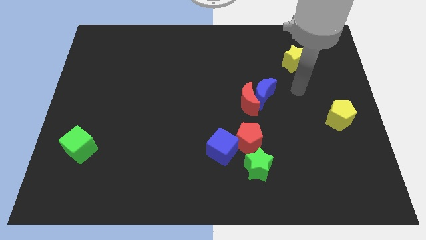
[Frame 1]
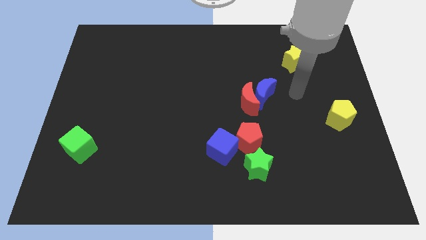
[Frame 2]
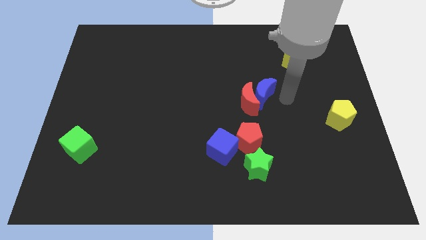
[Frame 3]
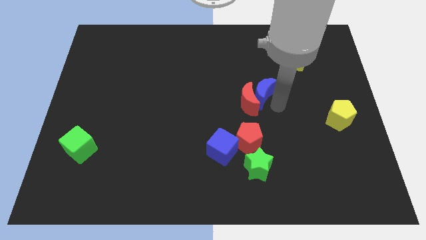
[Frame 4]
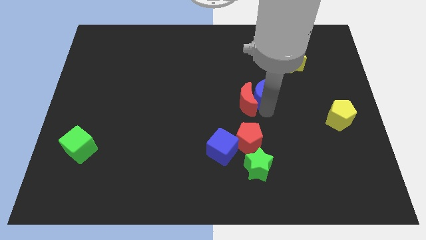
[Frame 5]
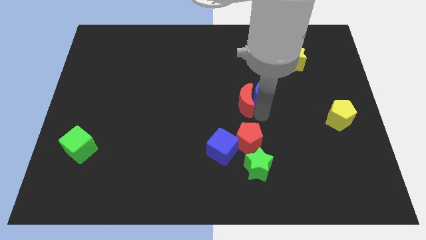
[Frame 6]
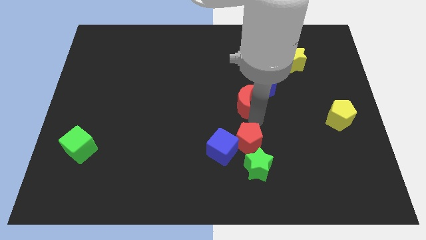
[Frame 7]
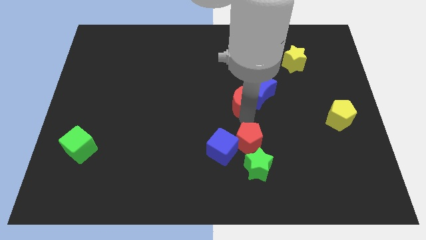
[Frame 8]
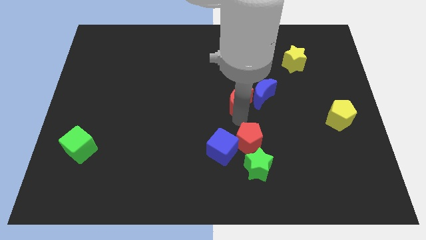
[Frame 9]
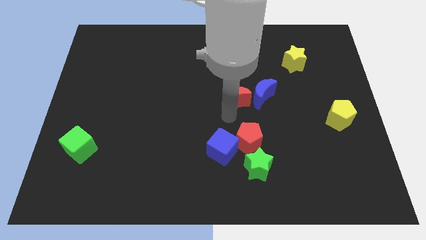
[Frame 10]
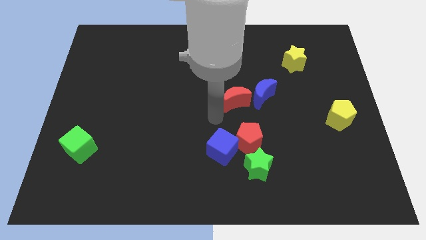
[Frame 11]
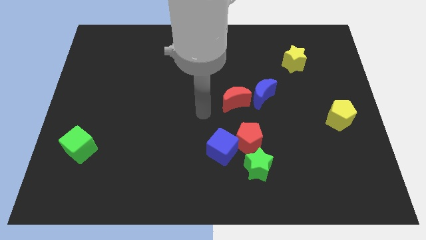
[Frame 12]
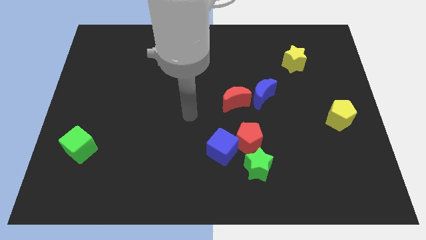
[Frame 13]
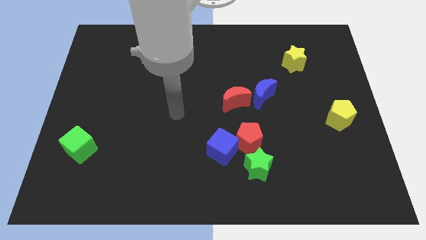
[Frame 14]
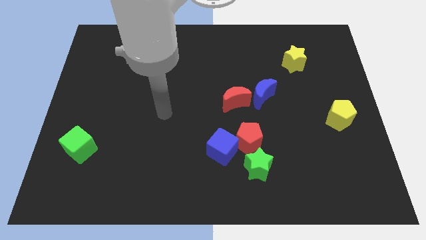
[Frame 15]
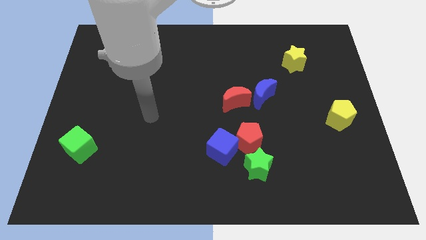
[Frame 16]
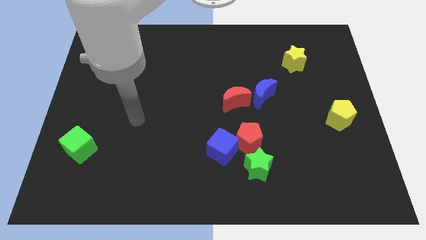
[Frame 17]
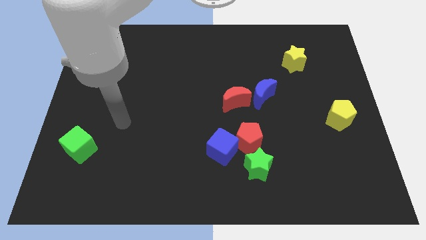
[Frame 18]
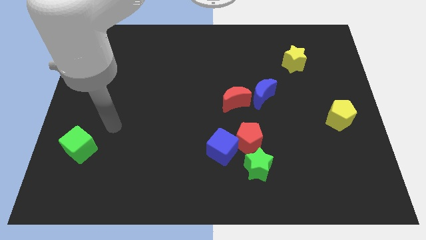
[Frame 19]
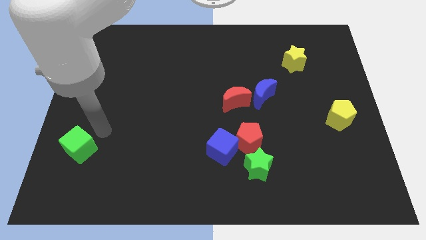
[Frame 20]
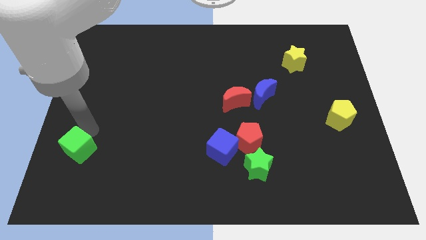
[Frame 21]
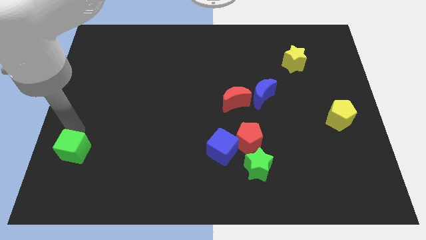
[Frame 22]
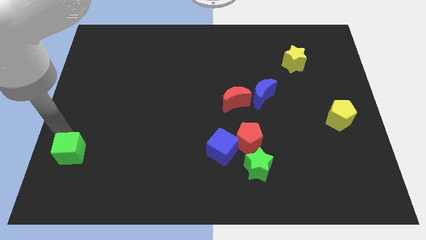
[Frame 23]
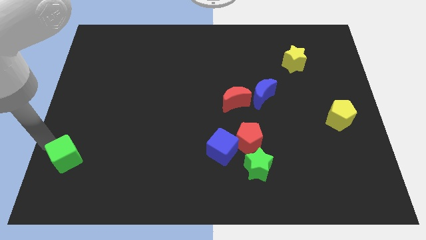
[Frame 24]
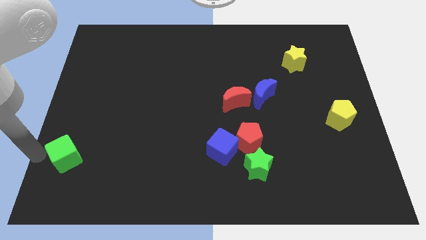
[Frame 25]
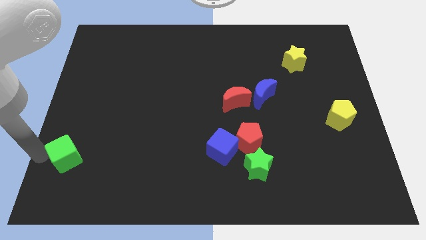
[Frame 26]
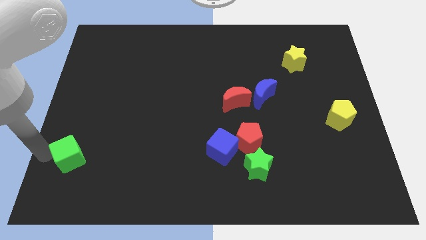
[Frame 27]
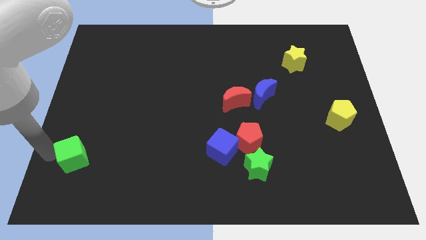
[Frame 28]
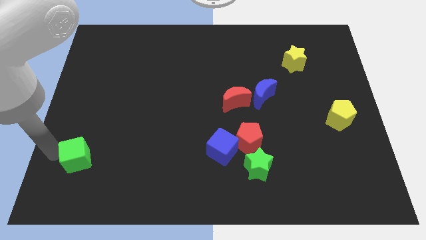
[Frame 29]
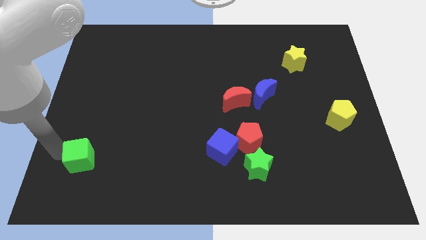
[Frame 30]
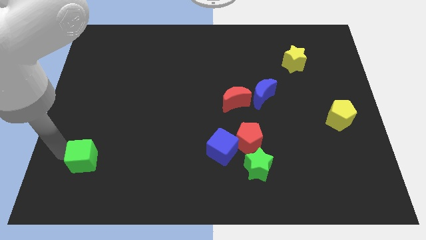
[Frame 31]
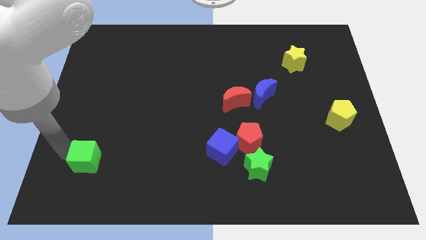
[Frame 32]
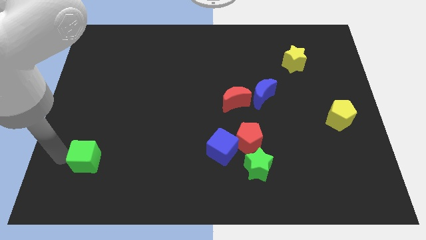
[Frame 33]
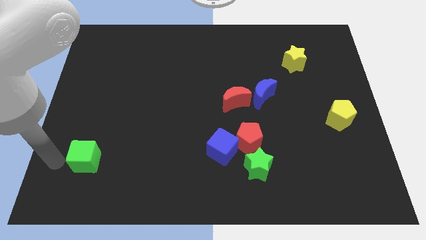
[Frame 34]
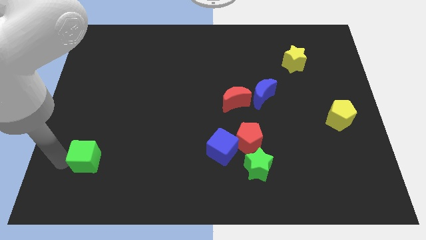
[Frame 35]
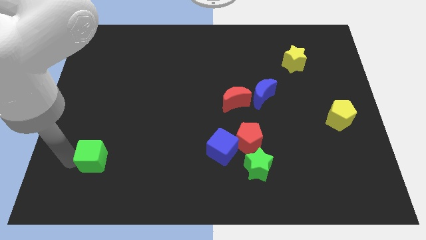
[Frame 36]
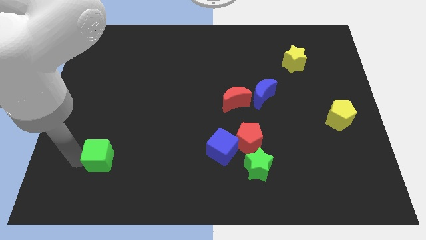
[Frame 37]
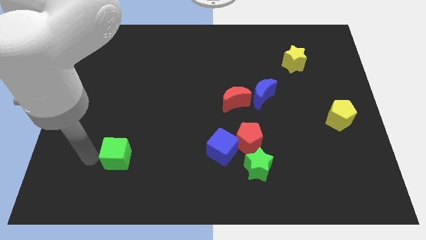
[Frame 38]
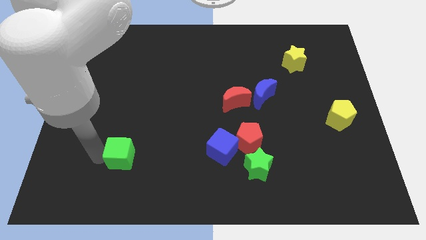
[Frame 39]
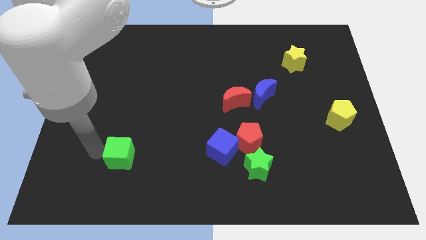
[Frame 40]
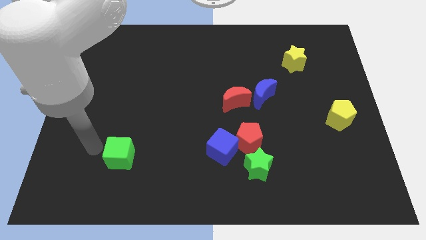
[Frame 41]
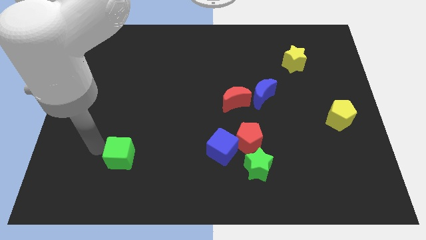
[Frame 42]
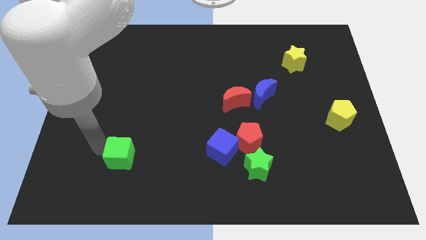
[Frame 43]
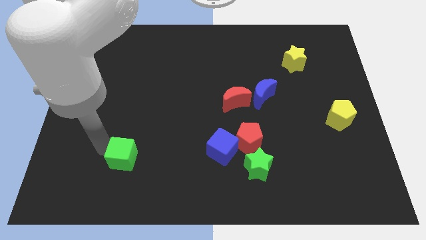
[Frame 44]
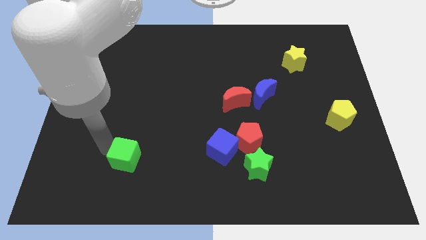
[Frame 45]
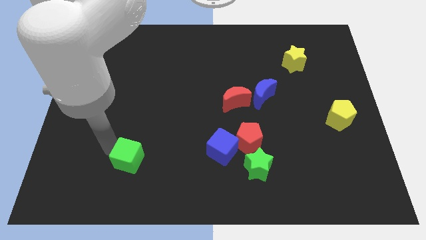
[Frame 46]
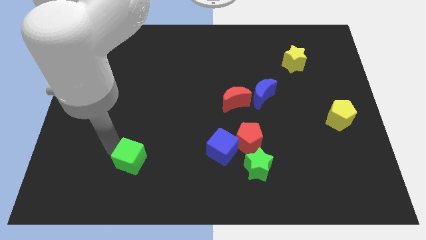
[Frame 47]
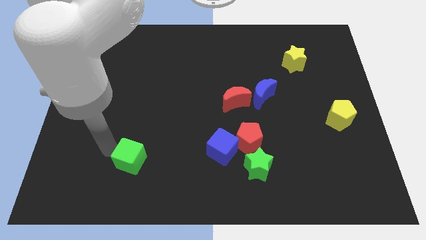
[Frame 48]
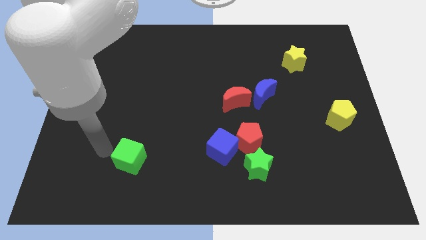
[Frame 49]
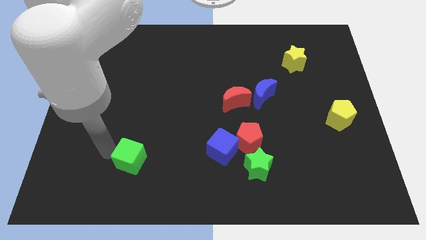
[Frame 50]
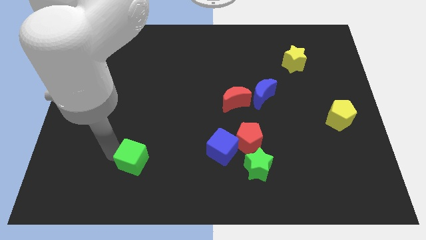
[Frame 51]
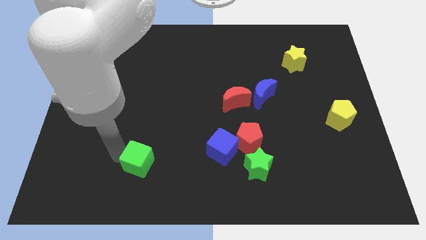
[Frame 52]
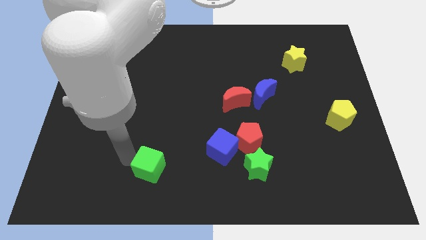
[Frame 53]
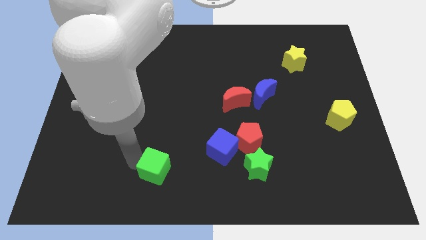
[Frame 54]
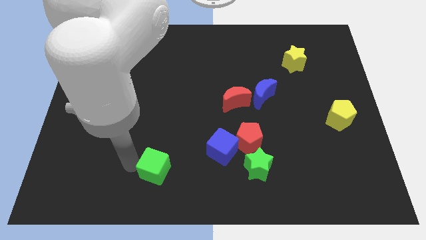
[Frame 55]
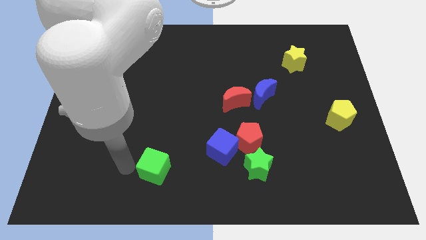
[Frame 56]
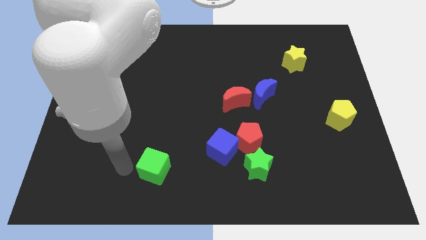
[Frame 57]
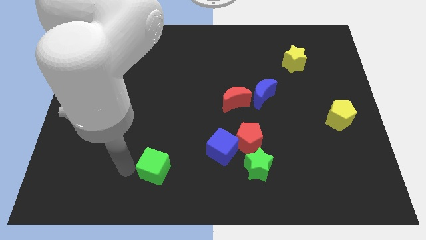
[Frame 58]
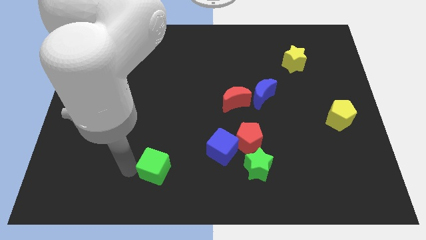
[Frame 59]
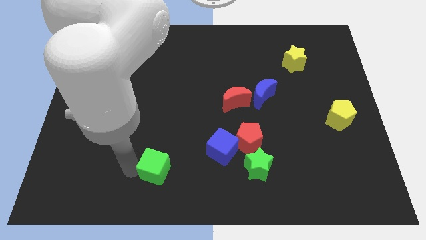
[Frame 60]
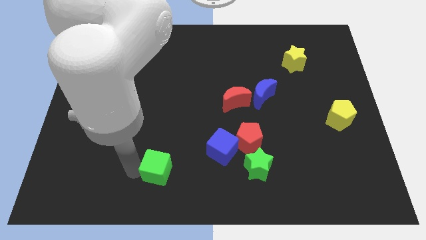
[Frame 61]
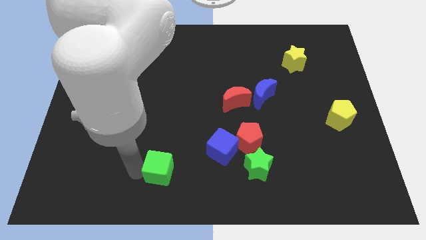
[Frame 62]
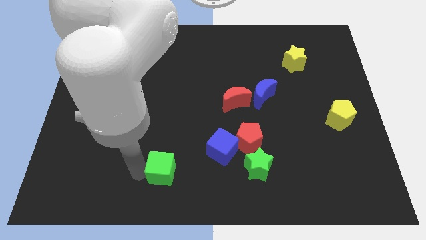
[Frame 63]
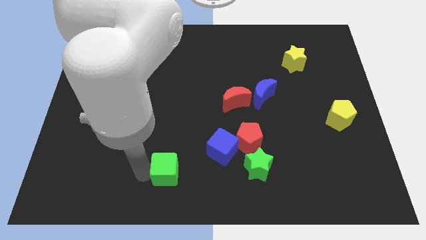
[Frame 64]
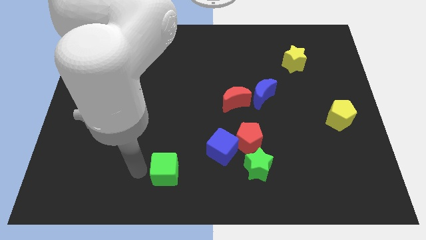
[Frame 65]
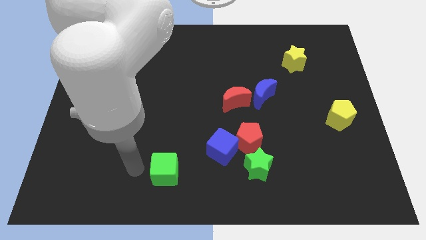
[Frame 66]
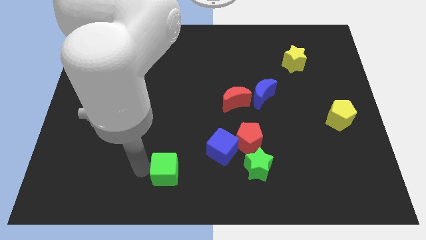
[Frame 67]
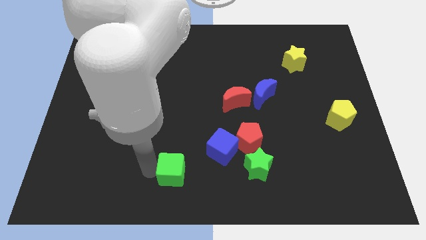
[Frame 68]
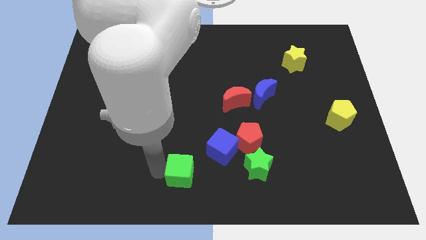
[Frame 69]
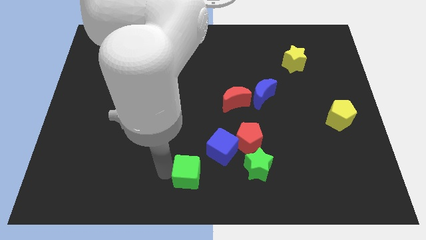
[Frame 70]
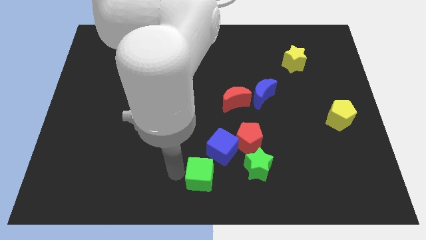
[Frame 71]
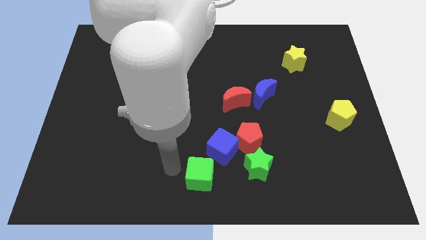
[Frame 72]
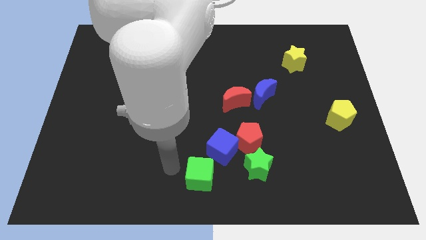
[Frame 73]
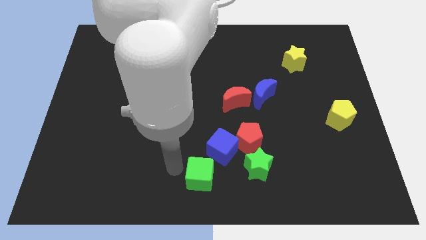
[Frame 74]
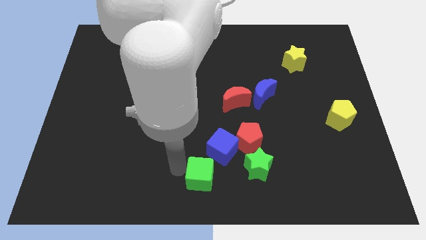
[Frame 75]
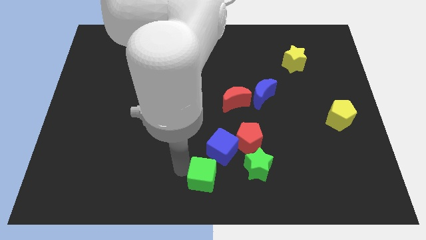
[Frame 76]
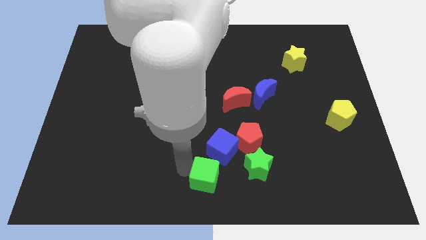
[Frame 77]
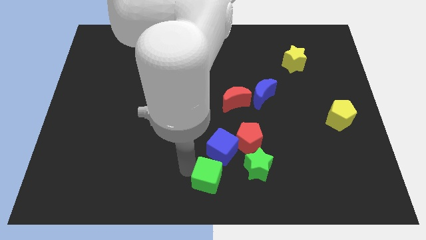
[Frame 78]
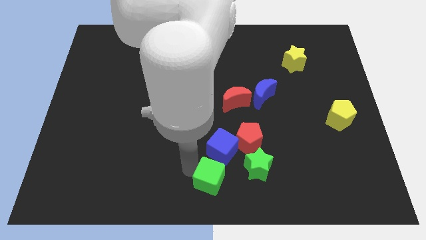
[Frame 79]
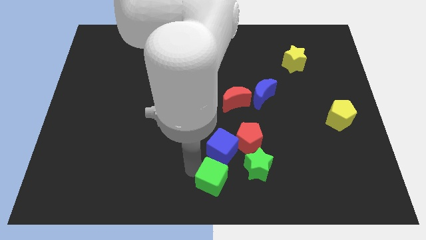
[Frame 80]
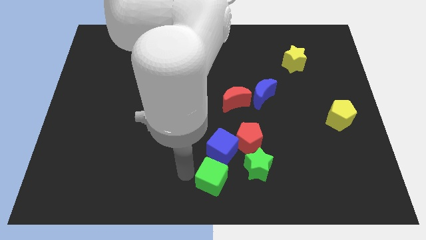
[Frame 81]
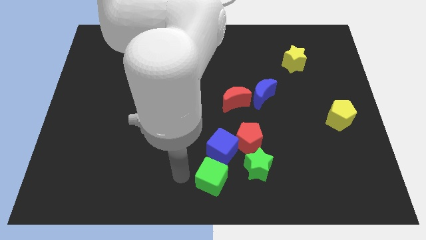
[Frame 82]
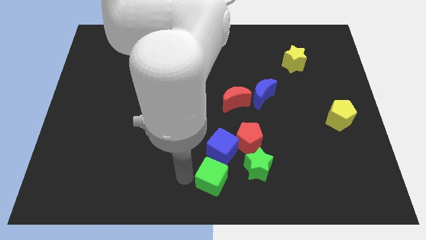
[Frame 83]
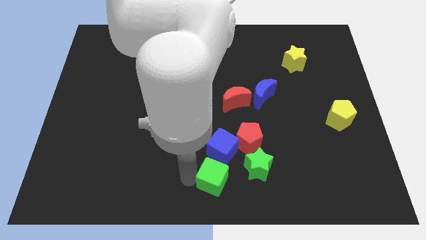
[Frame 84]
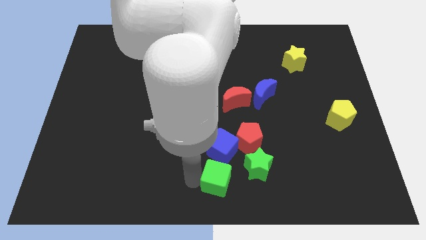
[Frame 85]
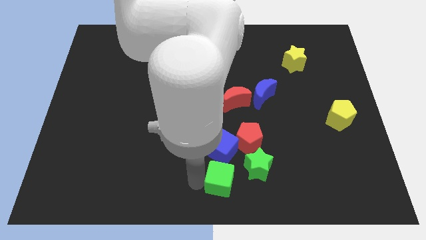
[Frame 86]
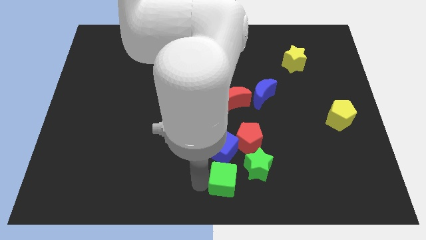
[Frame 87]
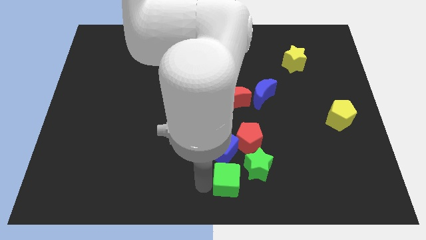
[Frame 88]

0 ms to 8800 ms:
move the green cube to the bottom of the red pentagon
